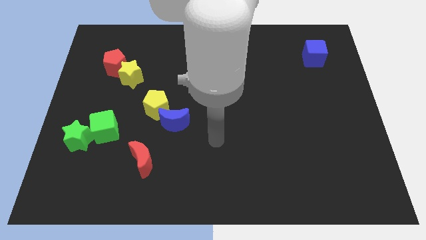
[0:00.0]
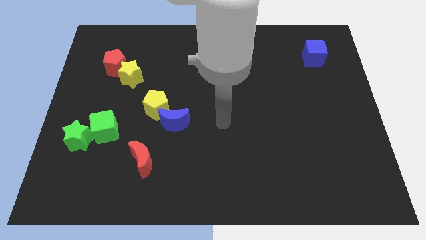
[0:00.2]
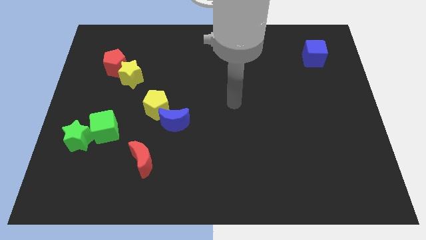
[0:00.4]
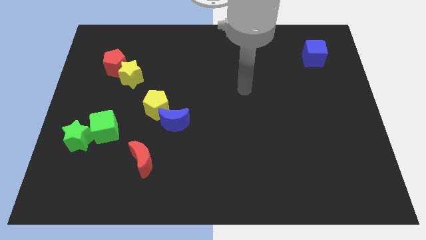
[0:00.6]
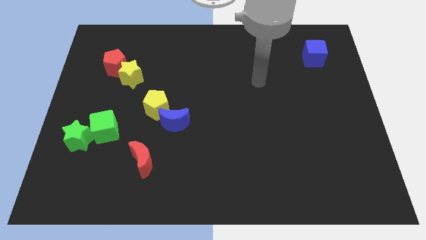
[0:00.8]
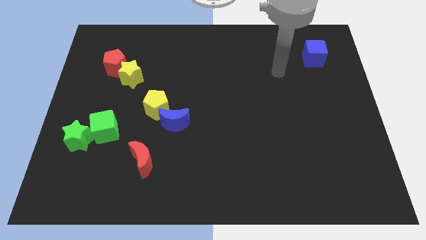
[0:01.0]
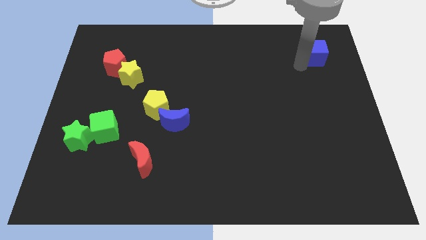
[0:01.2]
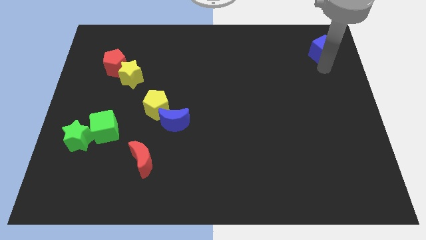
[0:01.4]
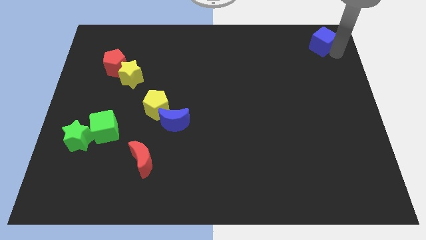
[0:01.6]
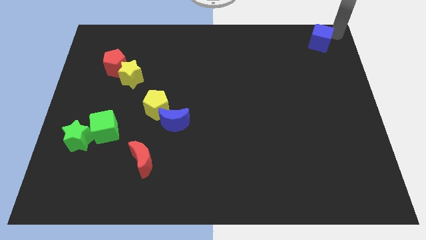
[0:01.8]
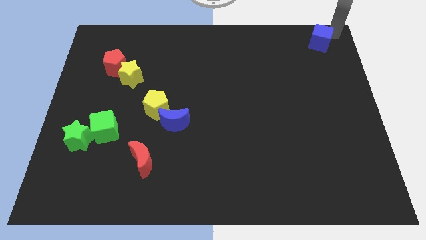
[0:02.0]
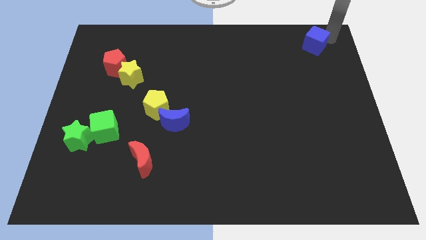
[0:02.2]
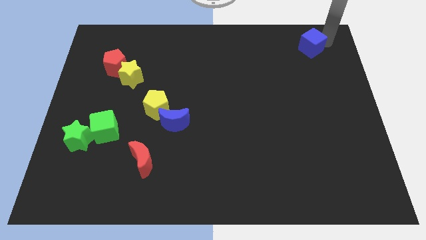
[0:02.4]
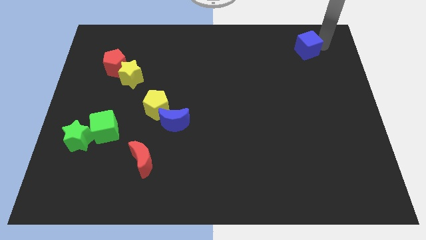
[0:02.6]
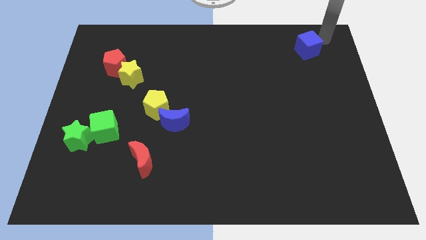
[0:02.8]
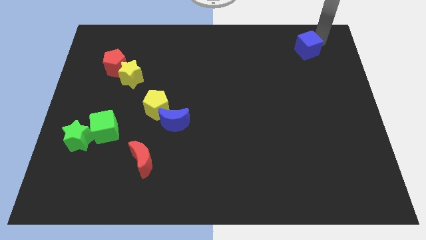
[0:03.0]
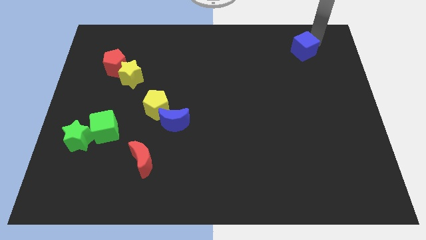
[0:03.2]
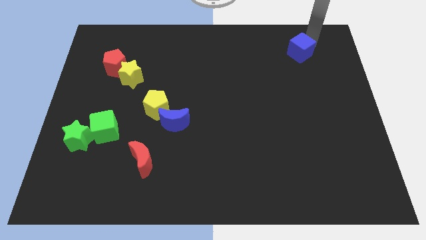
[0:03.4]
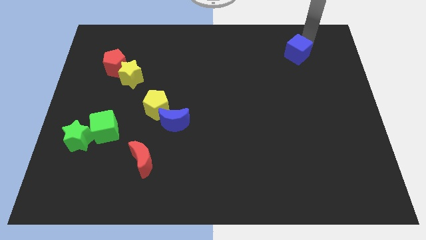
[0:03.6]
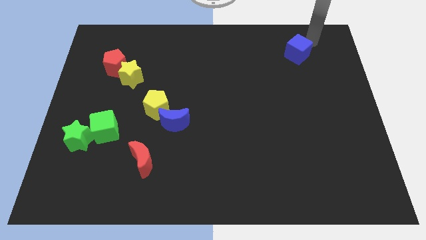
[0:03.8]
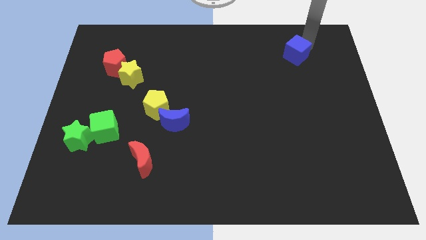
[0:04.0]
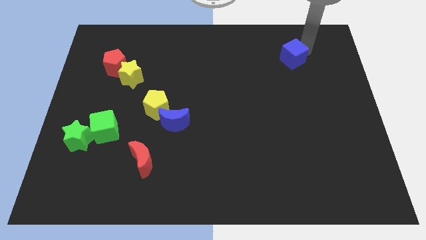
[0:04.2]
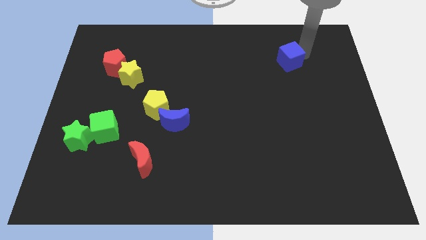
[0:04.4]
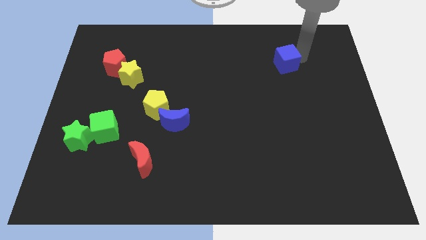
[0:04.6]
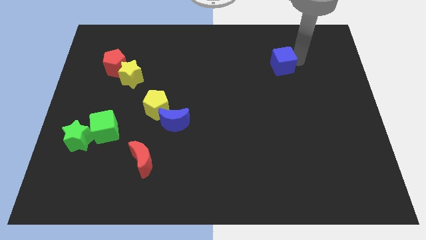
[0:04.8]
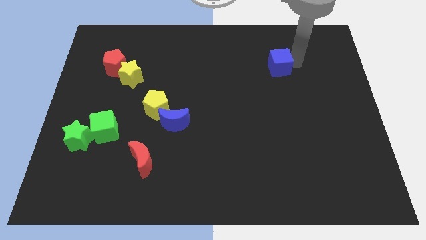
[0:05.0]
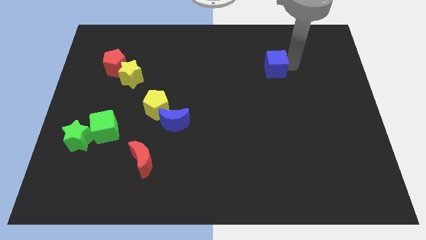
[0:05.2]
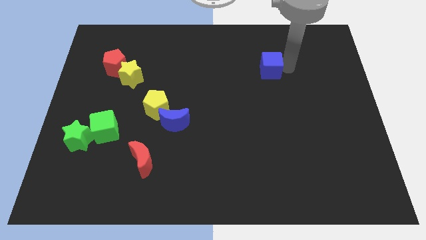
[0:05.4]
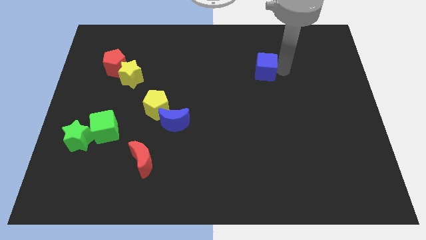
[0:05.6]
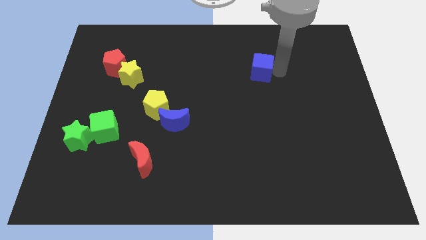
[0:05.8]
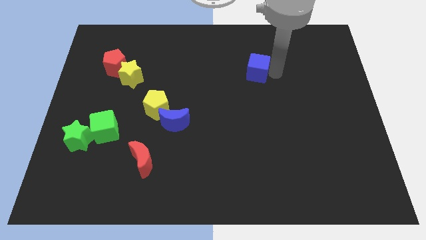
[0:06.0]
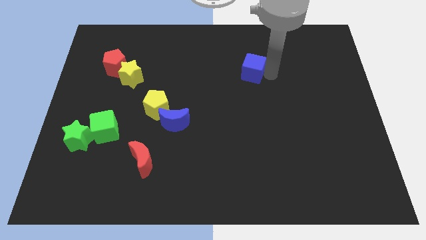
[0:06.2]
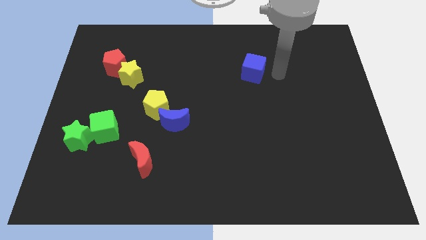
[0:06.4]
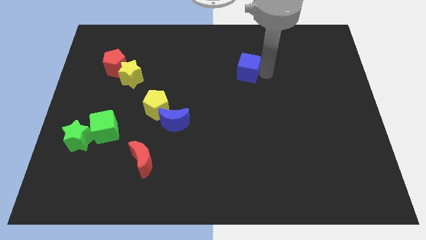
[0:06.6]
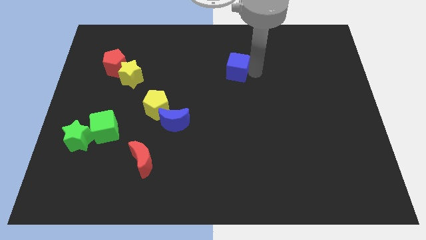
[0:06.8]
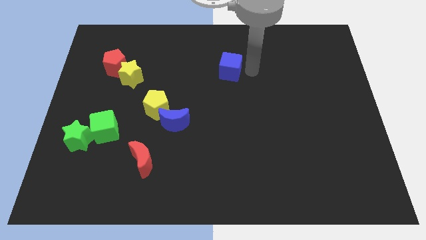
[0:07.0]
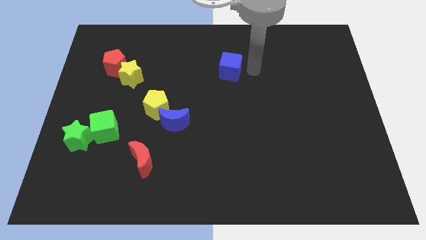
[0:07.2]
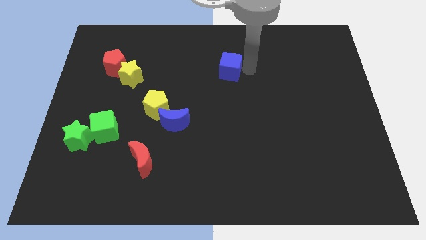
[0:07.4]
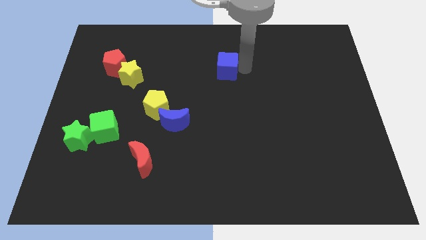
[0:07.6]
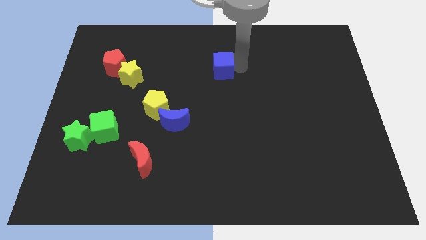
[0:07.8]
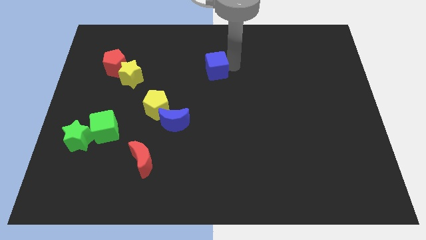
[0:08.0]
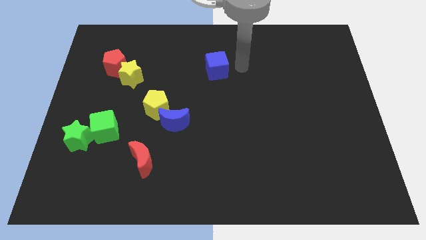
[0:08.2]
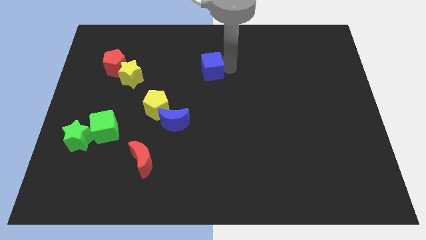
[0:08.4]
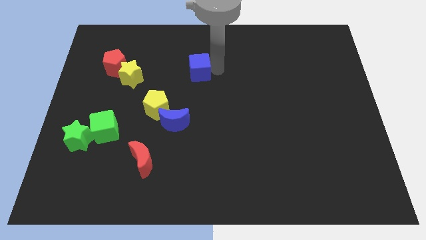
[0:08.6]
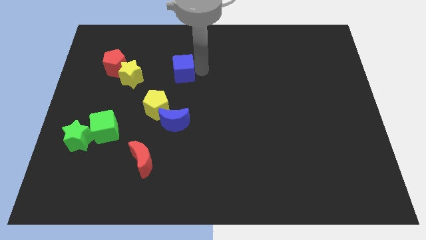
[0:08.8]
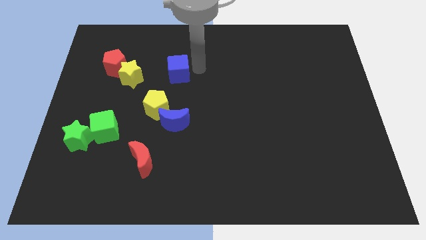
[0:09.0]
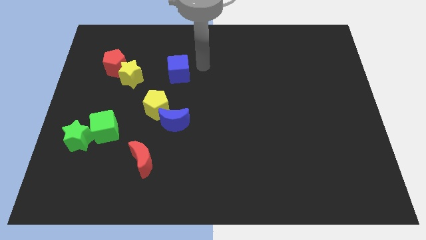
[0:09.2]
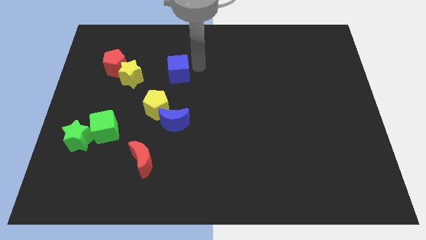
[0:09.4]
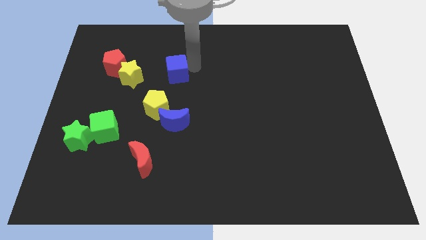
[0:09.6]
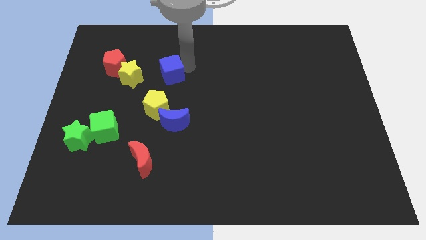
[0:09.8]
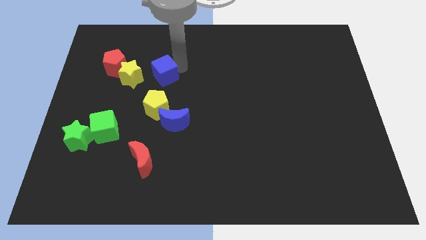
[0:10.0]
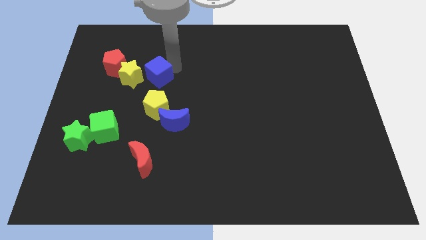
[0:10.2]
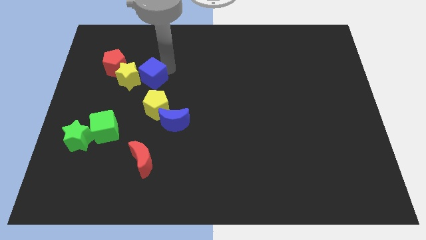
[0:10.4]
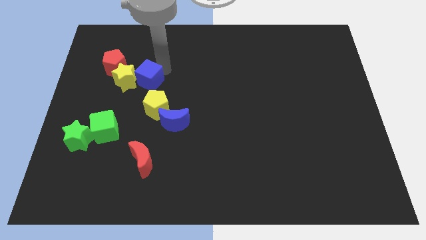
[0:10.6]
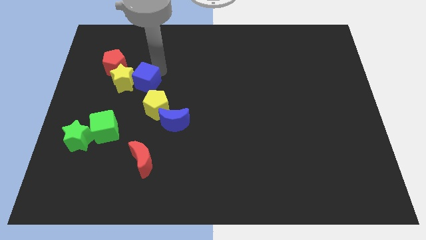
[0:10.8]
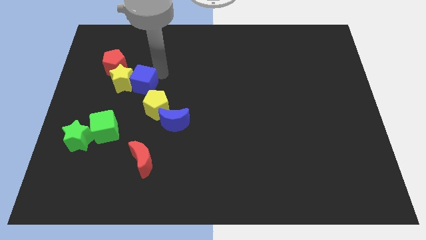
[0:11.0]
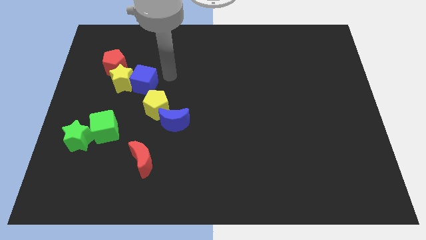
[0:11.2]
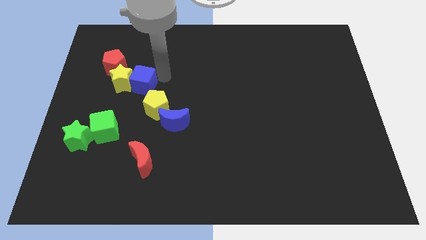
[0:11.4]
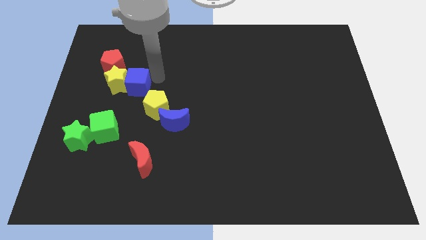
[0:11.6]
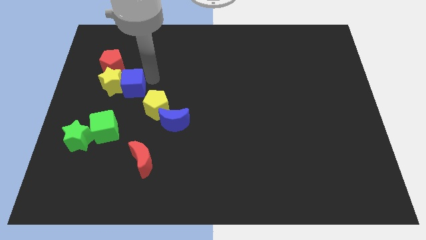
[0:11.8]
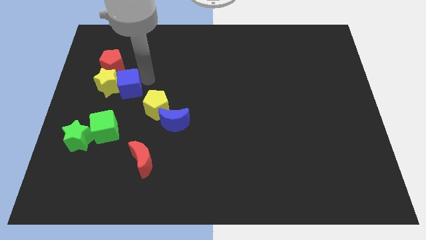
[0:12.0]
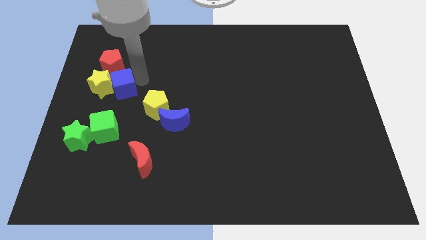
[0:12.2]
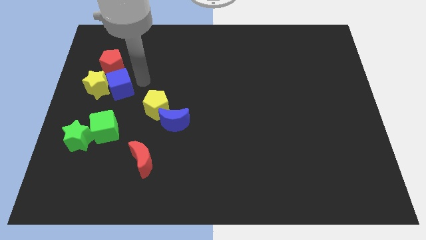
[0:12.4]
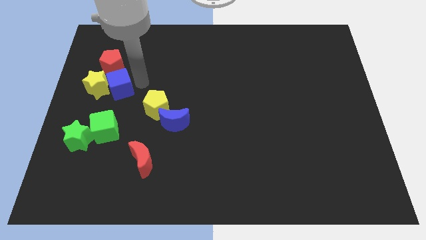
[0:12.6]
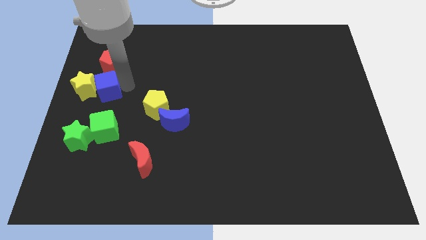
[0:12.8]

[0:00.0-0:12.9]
slide the blue cube to the center left
